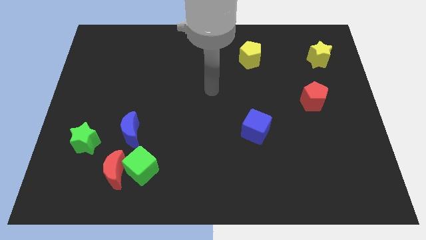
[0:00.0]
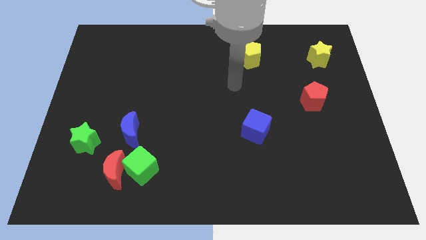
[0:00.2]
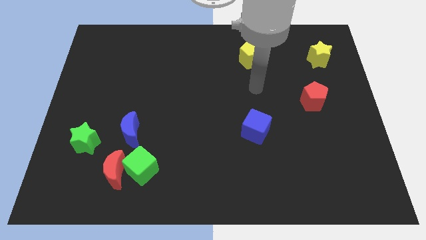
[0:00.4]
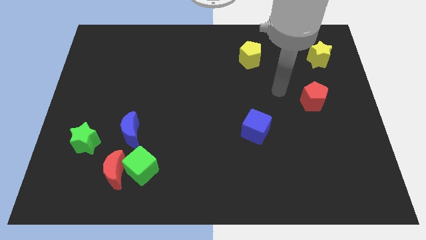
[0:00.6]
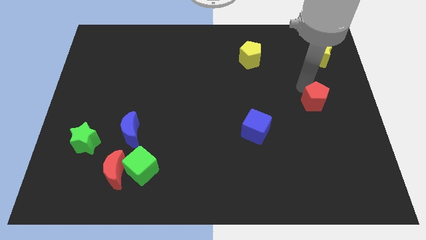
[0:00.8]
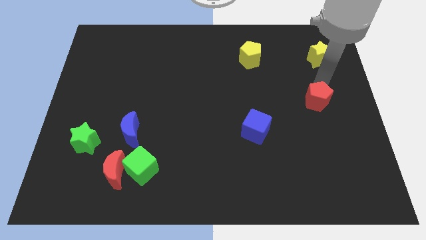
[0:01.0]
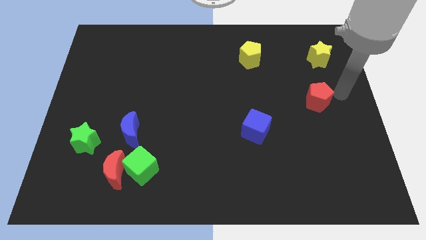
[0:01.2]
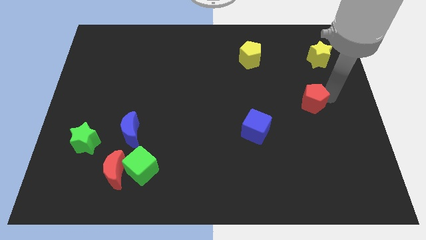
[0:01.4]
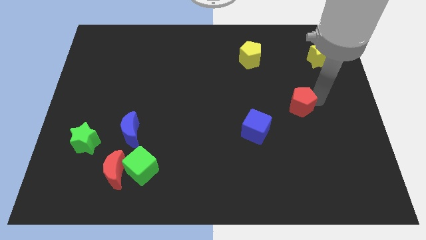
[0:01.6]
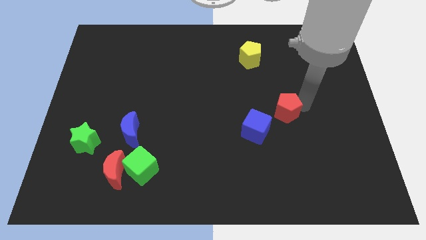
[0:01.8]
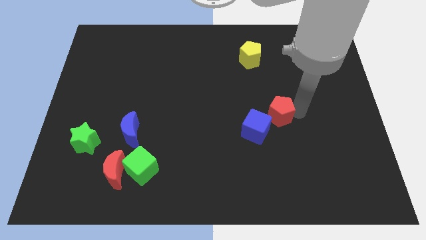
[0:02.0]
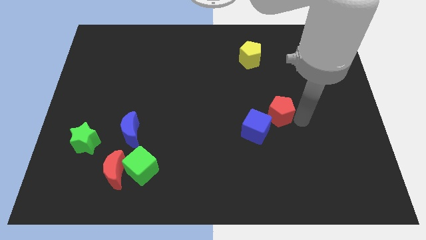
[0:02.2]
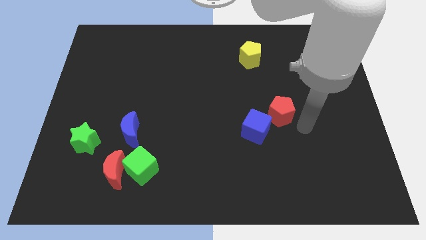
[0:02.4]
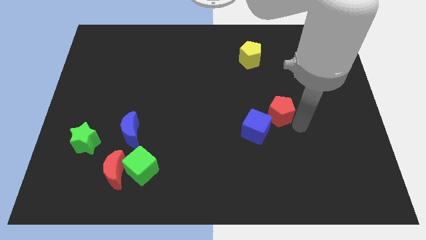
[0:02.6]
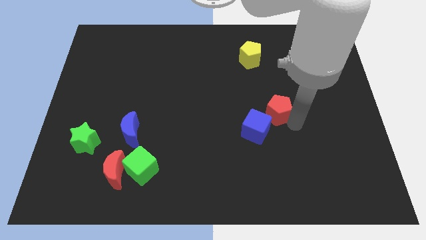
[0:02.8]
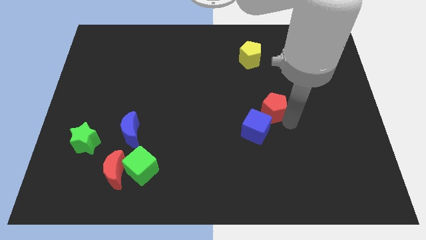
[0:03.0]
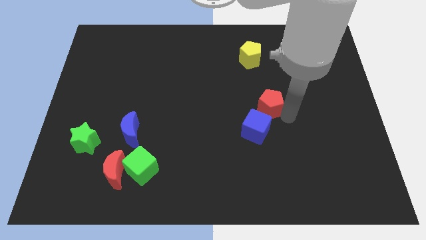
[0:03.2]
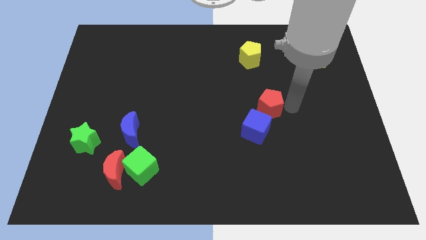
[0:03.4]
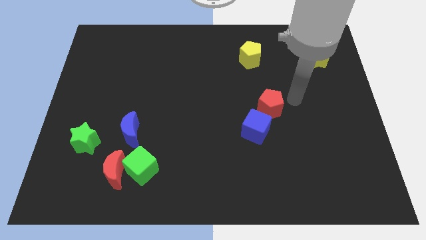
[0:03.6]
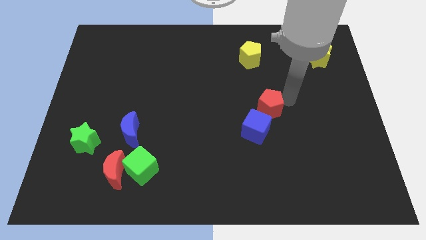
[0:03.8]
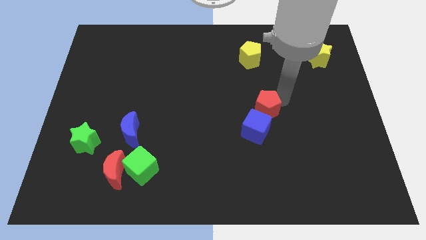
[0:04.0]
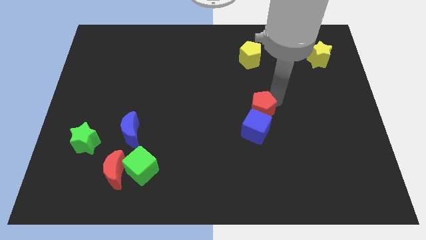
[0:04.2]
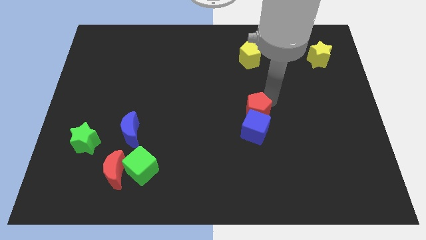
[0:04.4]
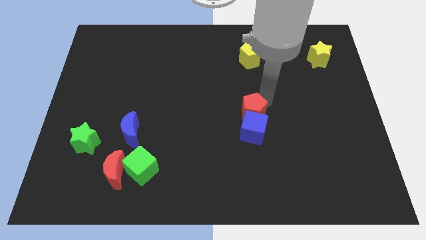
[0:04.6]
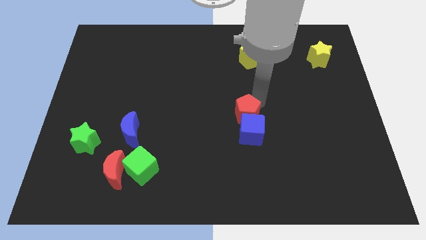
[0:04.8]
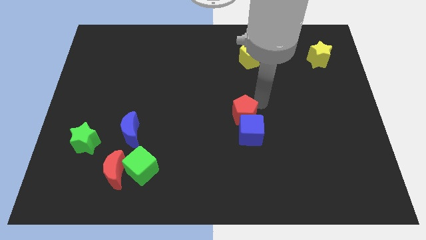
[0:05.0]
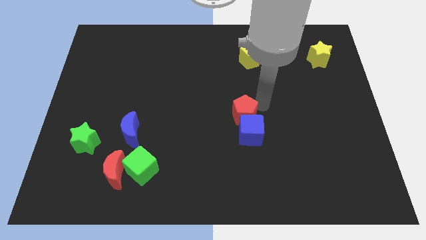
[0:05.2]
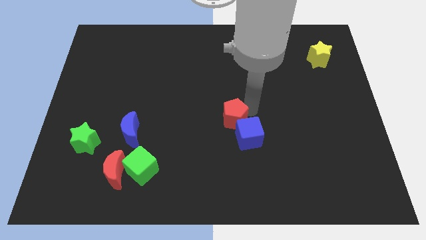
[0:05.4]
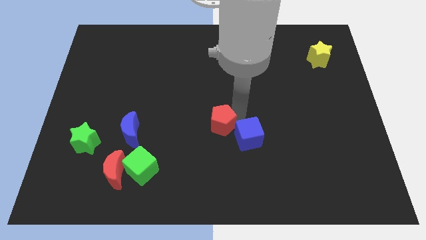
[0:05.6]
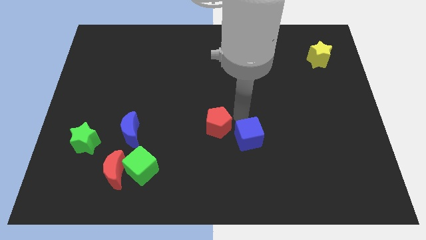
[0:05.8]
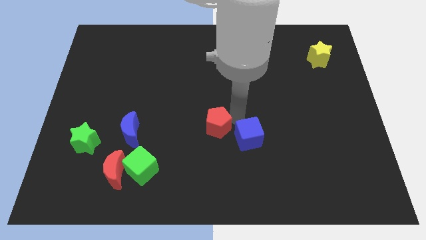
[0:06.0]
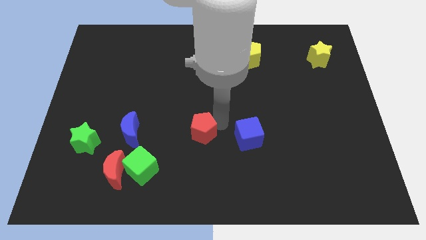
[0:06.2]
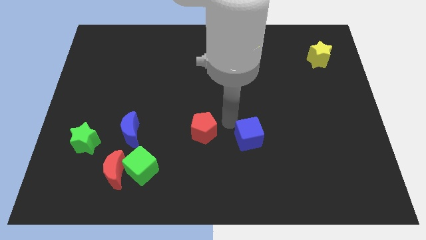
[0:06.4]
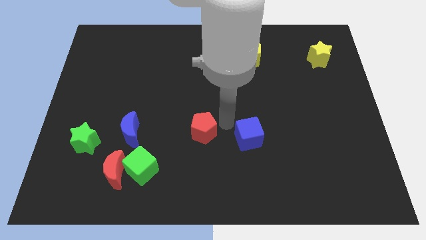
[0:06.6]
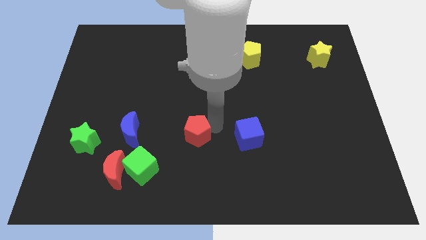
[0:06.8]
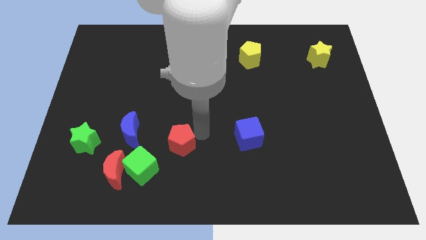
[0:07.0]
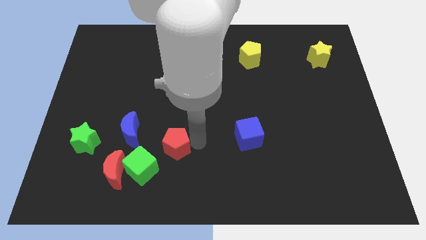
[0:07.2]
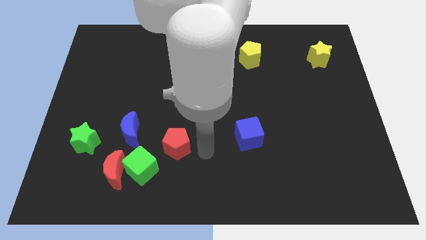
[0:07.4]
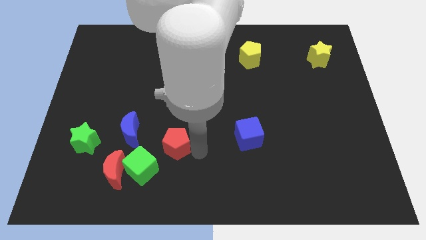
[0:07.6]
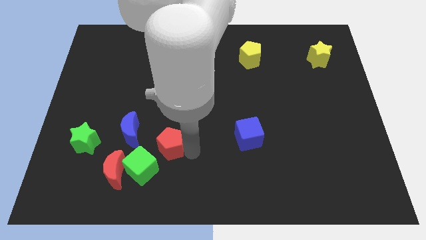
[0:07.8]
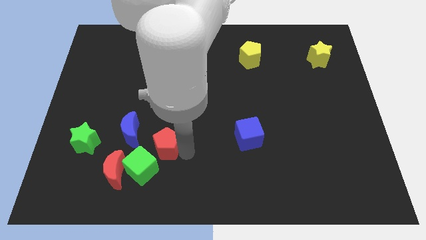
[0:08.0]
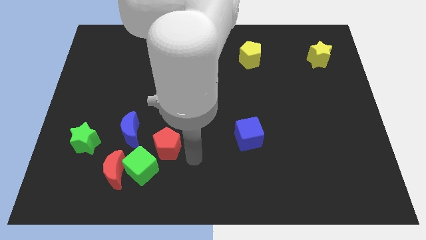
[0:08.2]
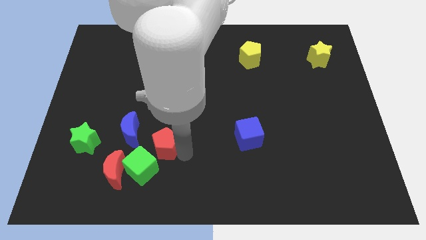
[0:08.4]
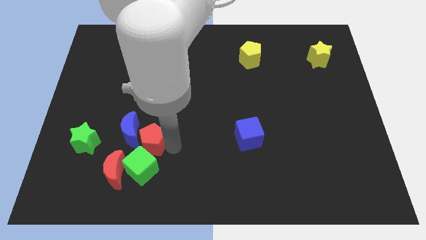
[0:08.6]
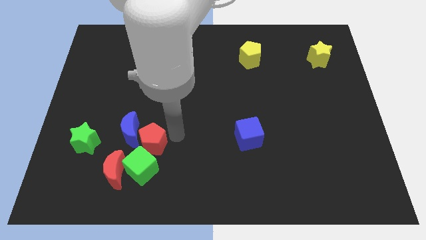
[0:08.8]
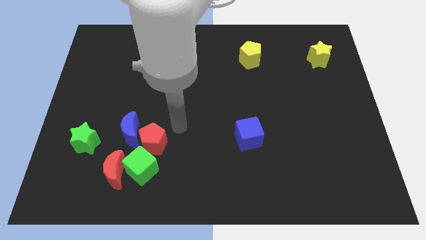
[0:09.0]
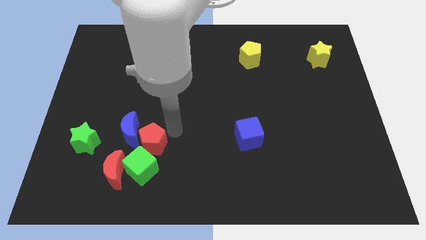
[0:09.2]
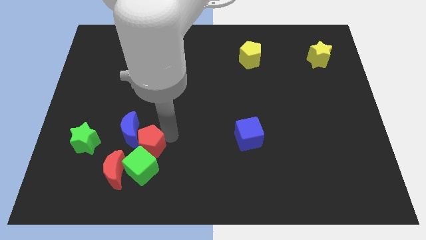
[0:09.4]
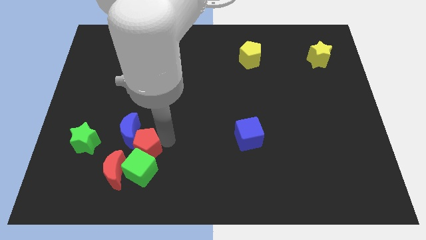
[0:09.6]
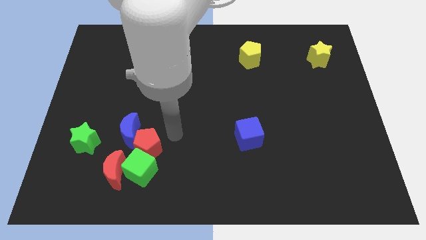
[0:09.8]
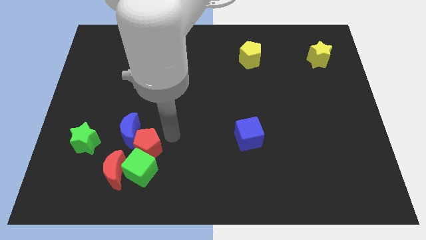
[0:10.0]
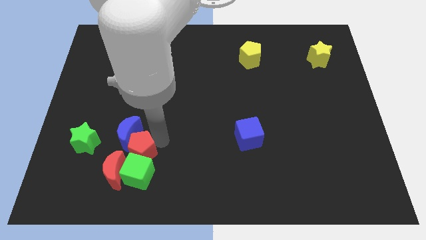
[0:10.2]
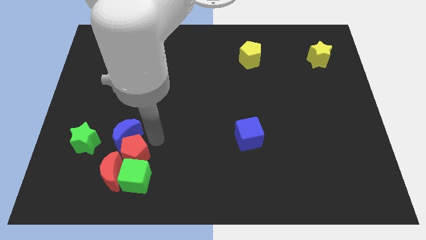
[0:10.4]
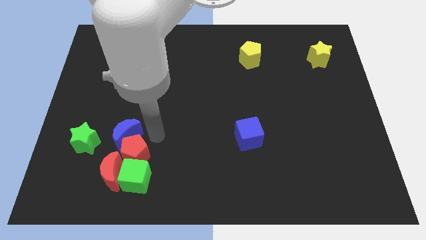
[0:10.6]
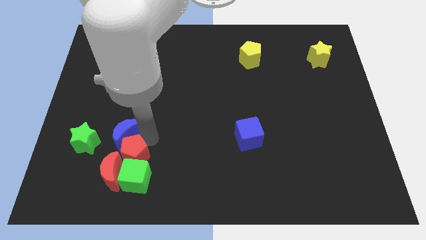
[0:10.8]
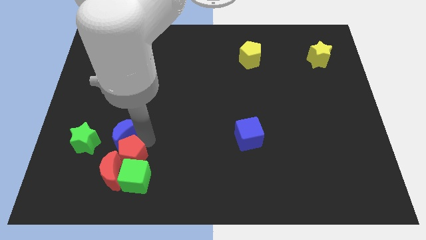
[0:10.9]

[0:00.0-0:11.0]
move the red pentagon to the red moon

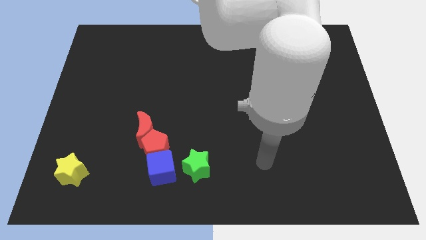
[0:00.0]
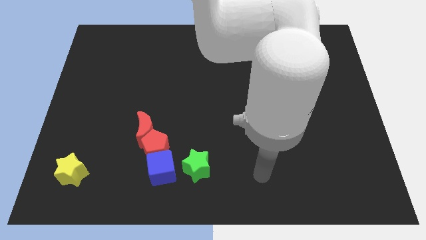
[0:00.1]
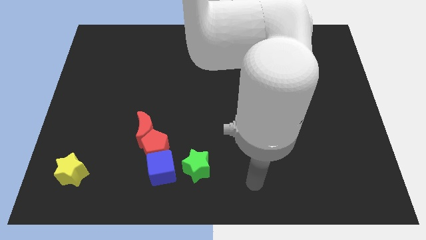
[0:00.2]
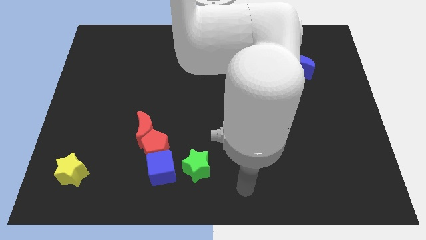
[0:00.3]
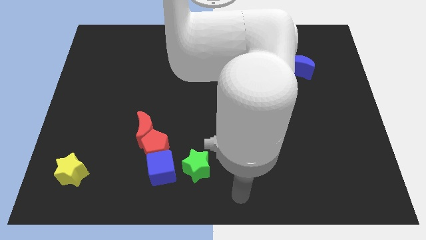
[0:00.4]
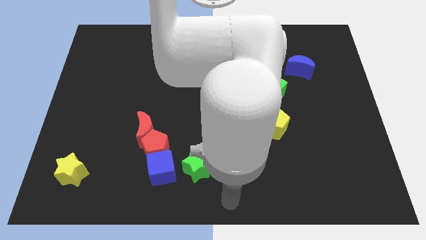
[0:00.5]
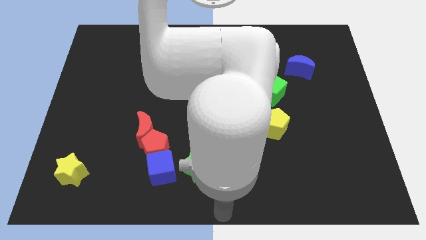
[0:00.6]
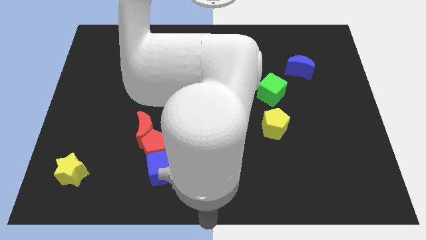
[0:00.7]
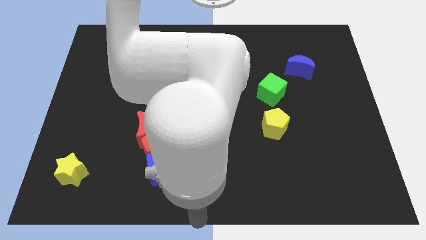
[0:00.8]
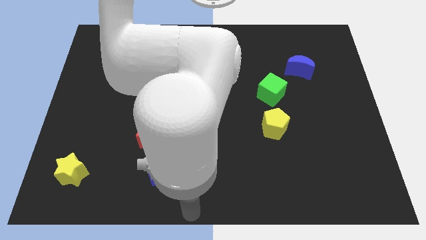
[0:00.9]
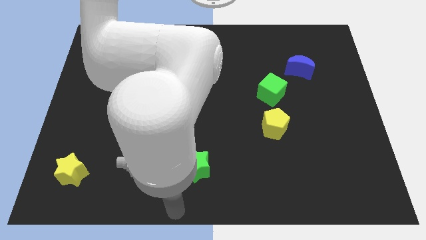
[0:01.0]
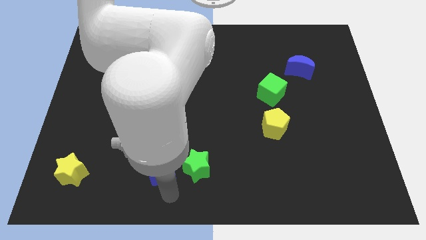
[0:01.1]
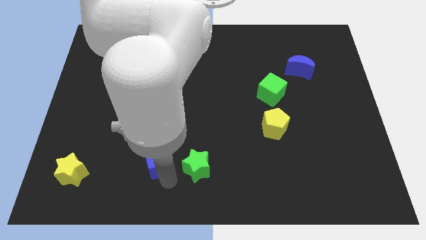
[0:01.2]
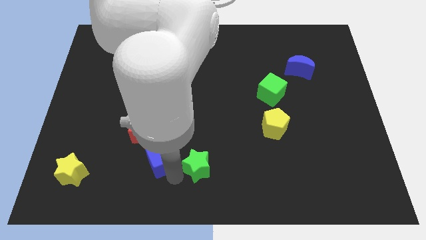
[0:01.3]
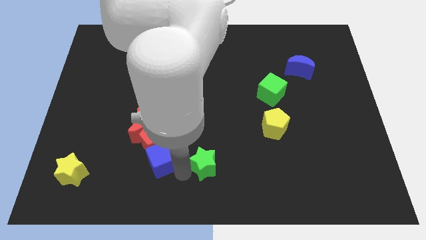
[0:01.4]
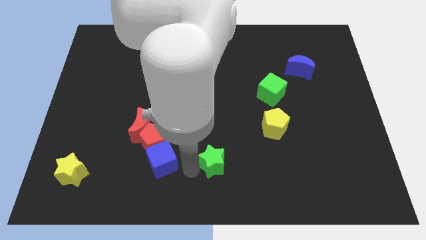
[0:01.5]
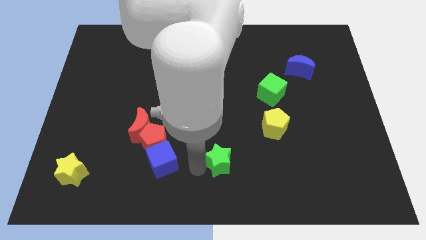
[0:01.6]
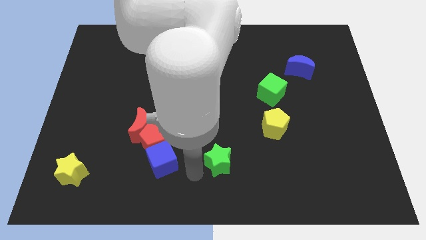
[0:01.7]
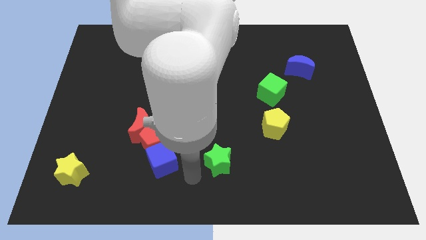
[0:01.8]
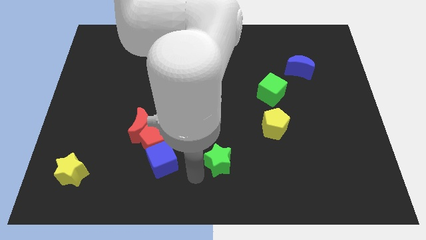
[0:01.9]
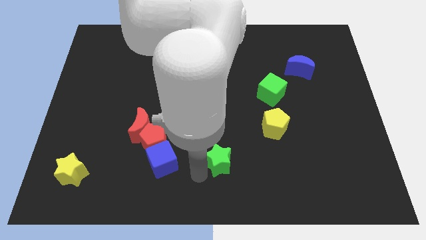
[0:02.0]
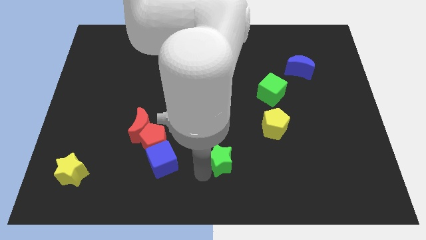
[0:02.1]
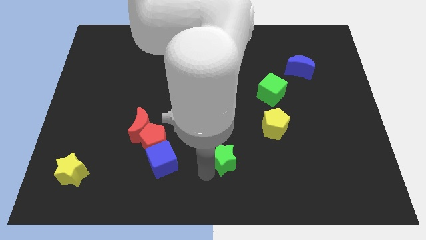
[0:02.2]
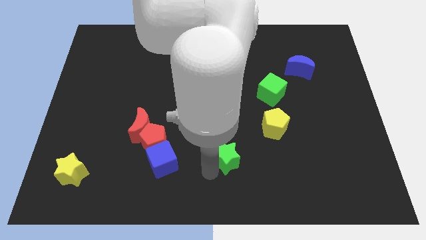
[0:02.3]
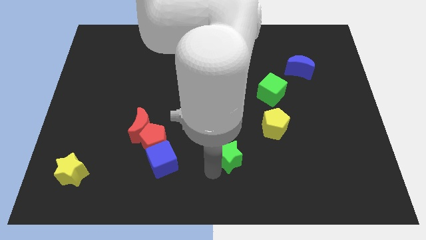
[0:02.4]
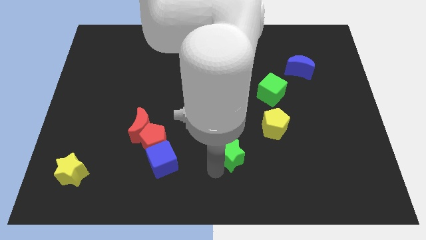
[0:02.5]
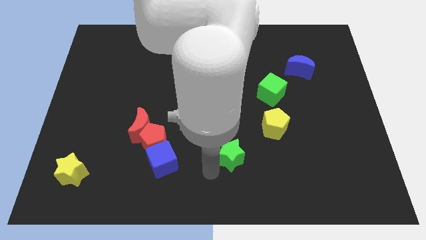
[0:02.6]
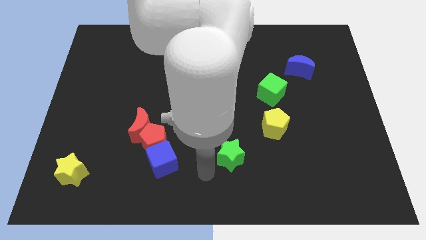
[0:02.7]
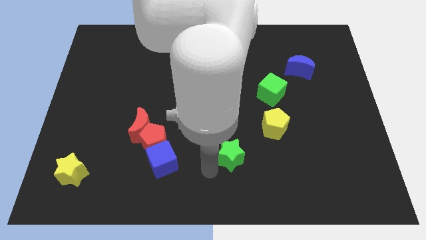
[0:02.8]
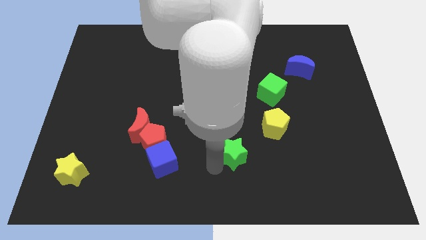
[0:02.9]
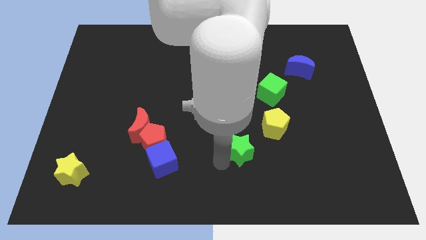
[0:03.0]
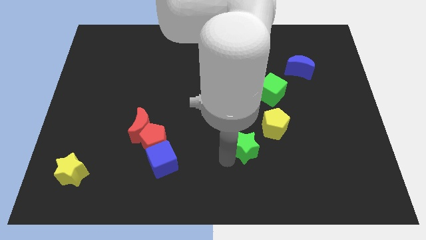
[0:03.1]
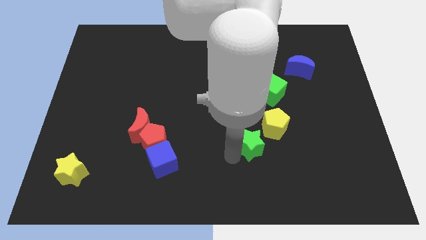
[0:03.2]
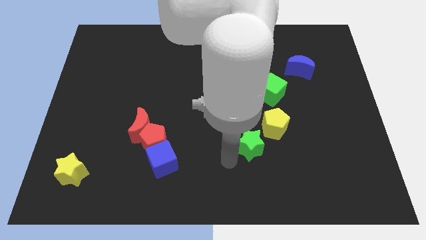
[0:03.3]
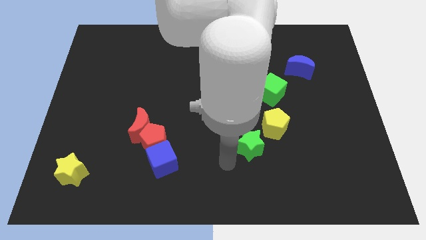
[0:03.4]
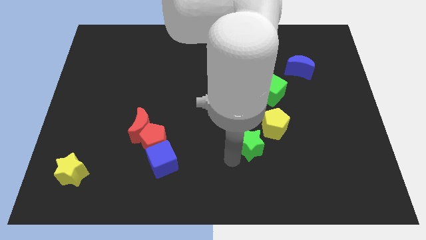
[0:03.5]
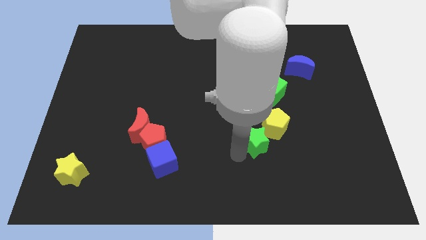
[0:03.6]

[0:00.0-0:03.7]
push the green star close to the yellow pentagon
